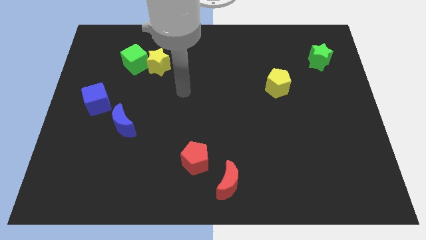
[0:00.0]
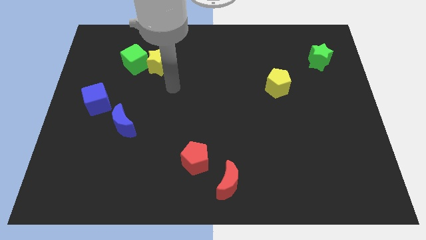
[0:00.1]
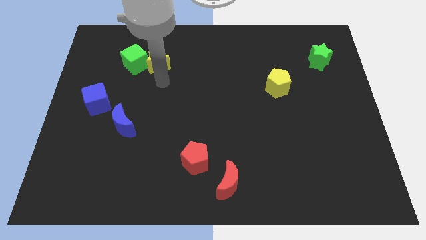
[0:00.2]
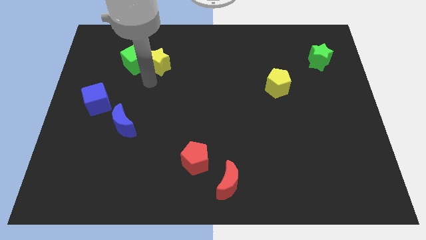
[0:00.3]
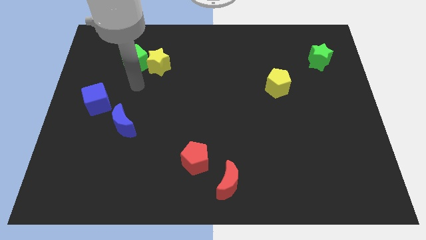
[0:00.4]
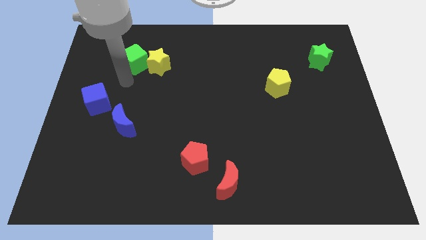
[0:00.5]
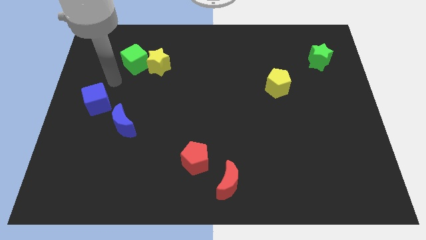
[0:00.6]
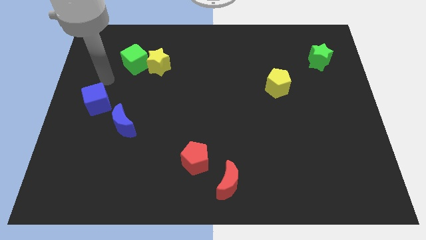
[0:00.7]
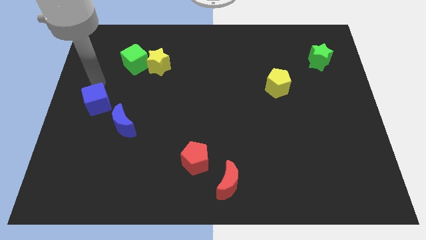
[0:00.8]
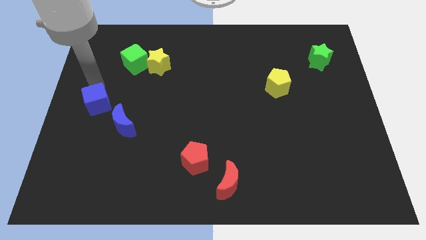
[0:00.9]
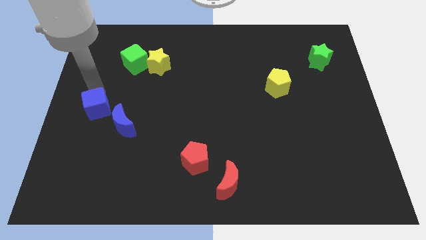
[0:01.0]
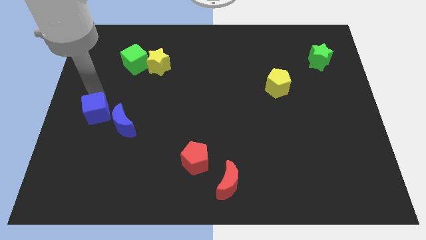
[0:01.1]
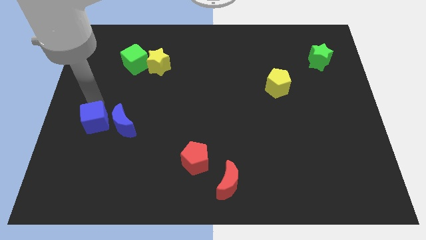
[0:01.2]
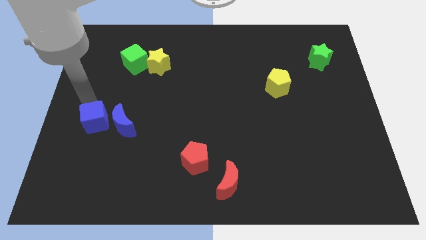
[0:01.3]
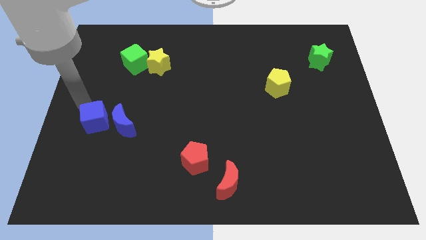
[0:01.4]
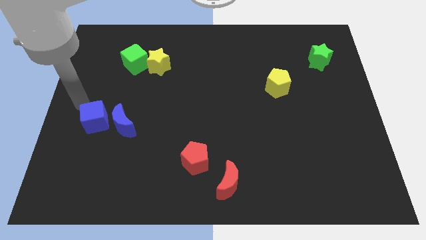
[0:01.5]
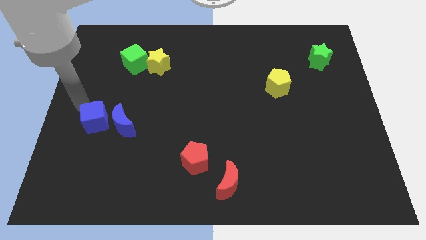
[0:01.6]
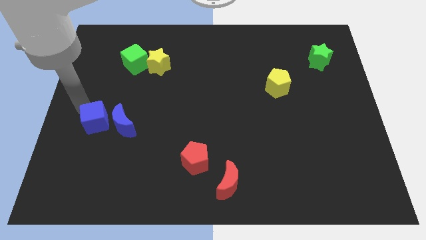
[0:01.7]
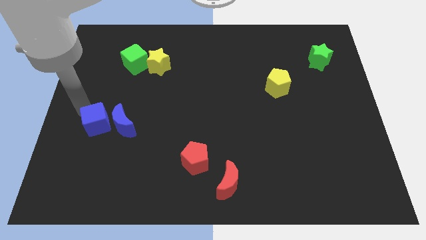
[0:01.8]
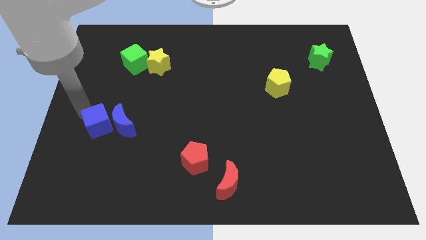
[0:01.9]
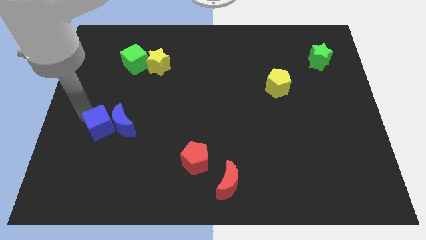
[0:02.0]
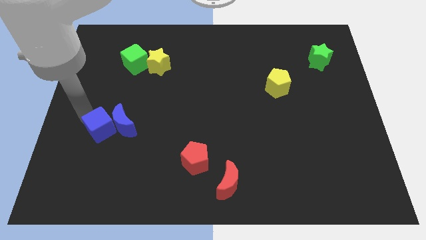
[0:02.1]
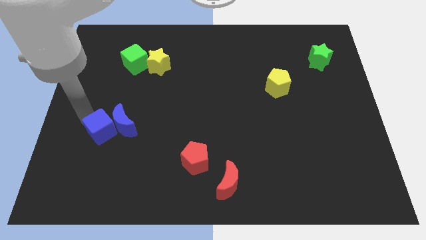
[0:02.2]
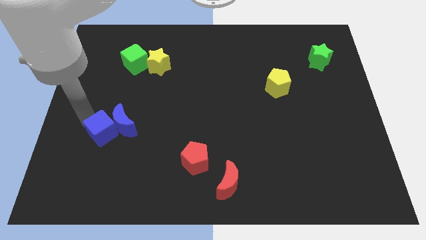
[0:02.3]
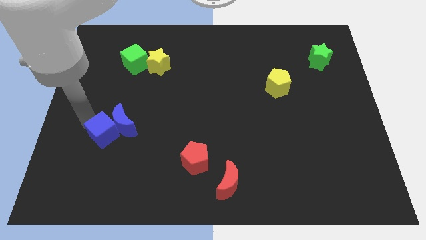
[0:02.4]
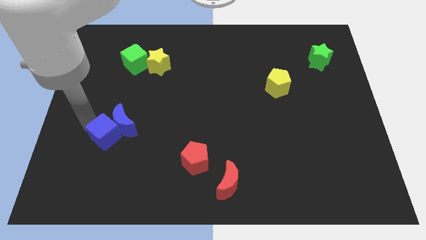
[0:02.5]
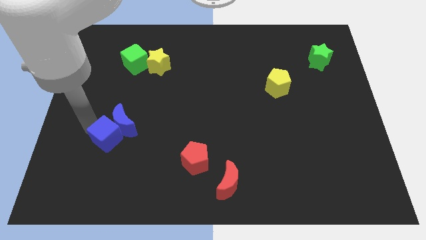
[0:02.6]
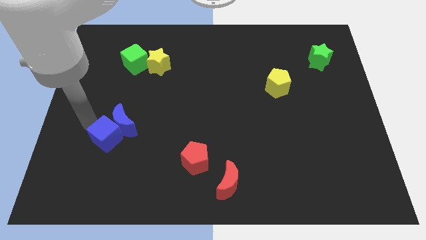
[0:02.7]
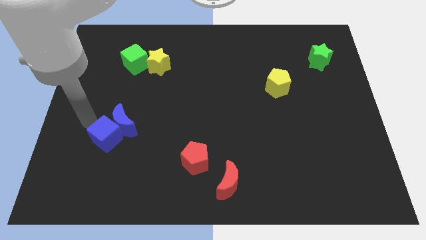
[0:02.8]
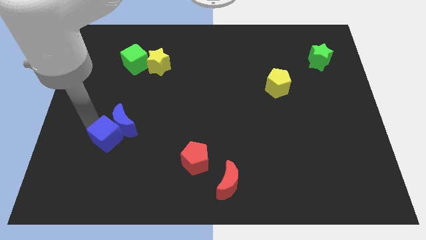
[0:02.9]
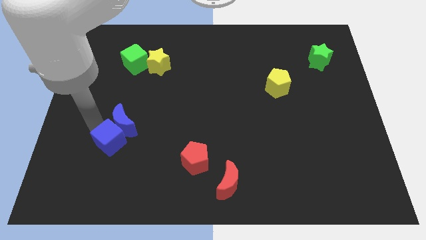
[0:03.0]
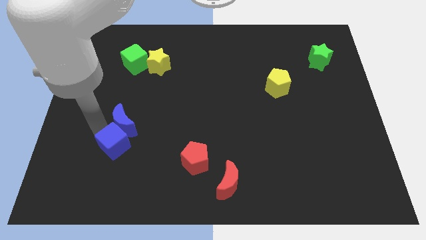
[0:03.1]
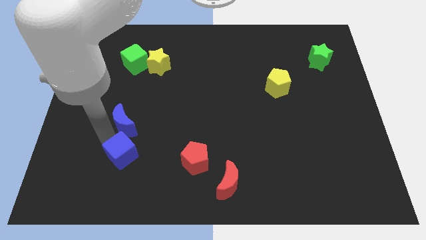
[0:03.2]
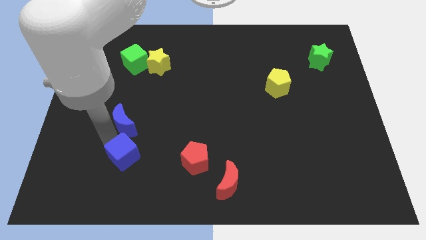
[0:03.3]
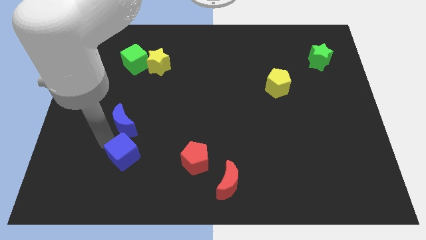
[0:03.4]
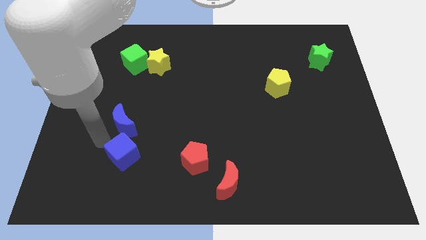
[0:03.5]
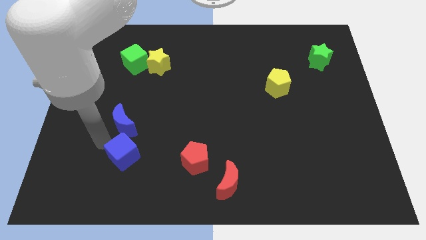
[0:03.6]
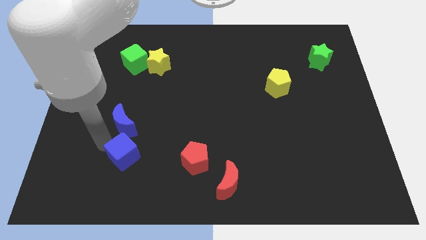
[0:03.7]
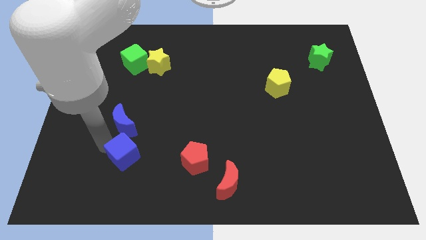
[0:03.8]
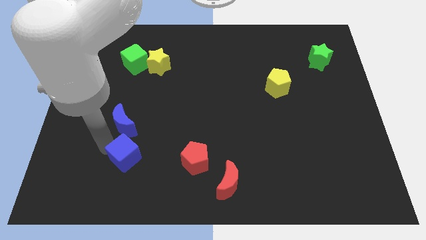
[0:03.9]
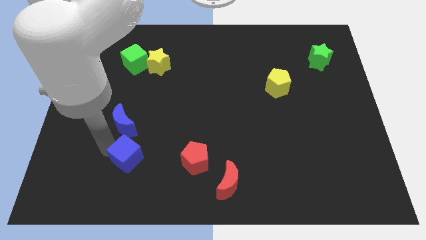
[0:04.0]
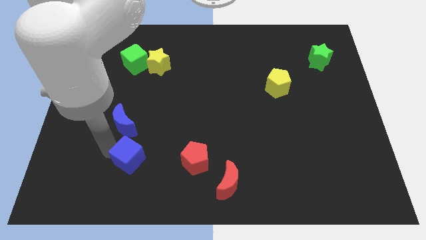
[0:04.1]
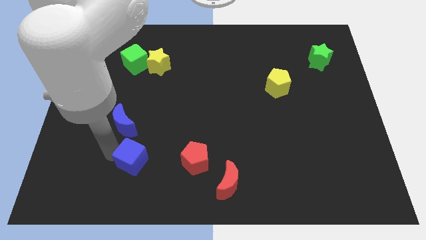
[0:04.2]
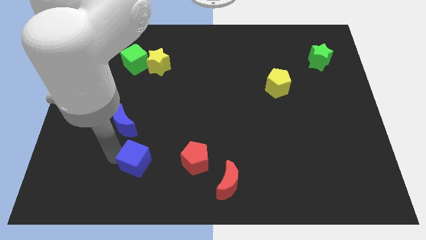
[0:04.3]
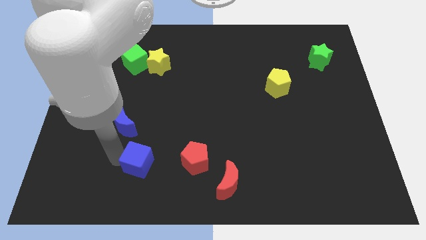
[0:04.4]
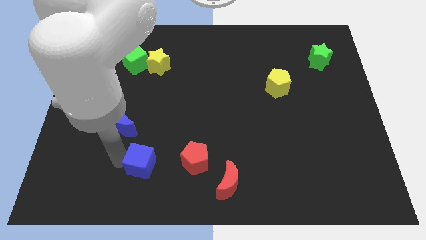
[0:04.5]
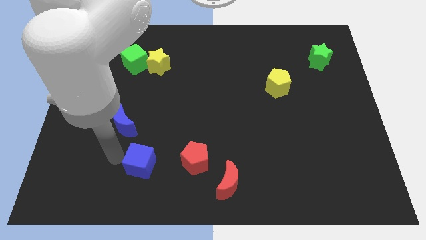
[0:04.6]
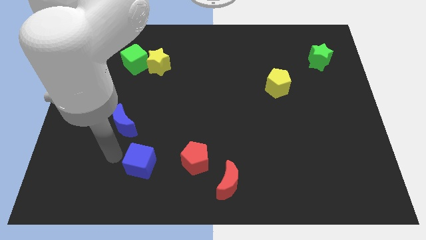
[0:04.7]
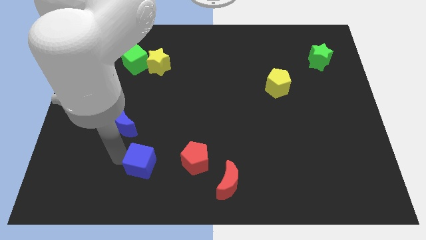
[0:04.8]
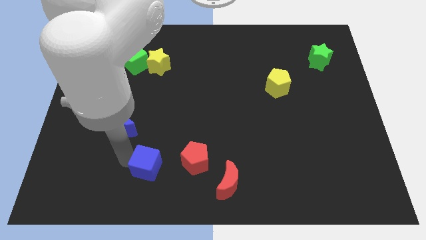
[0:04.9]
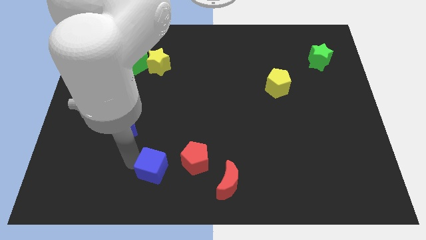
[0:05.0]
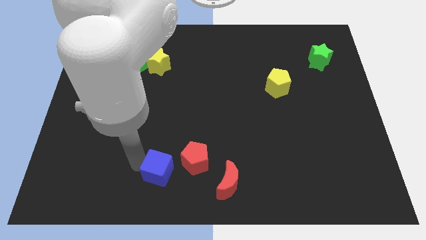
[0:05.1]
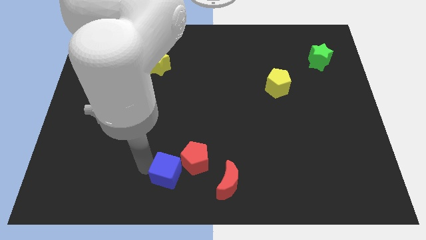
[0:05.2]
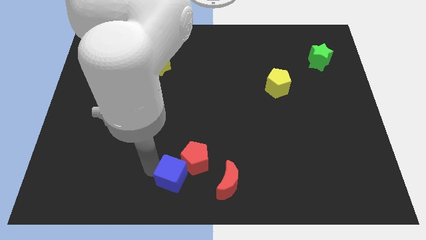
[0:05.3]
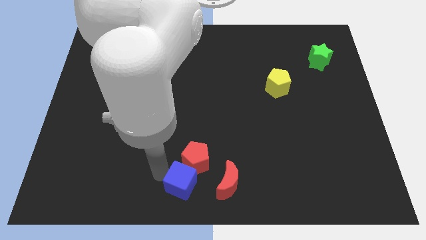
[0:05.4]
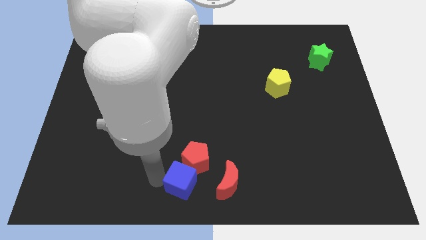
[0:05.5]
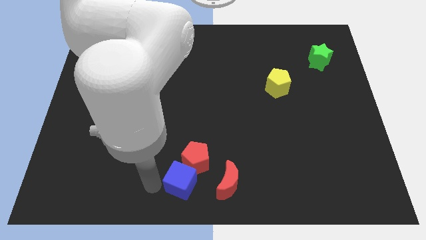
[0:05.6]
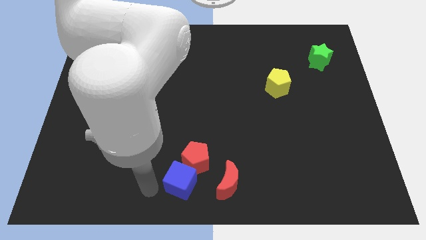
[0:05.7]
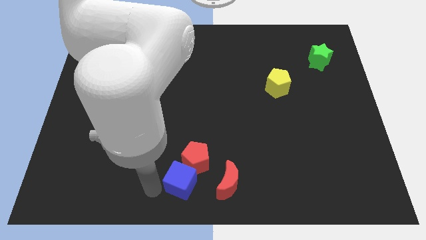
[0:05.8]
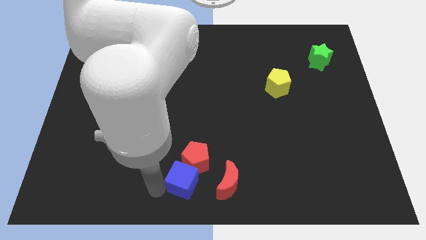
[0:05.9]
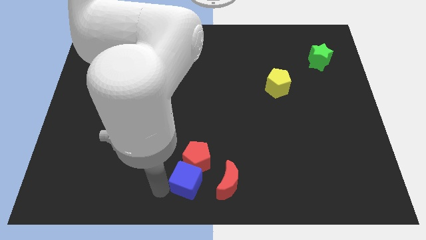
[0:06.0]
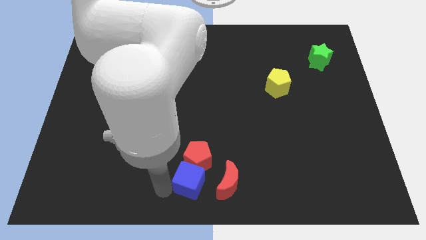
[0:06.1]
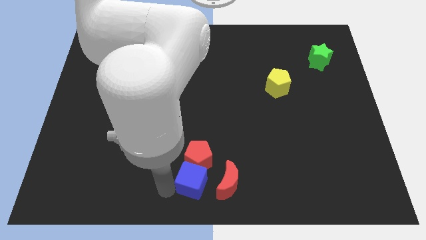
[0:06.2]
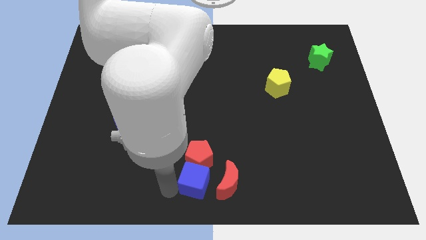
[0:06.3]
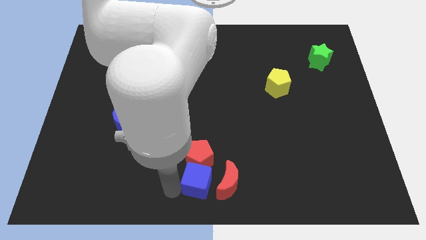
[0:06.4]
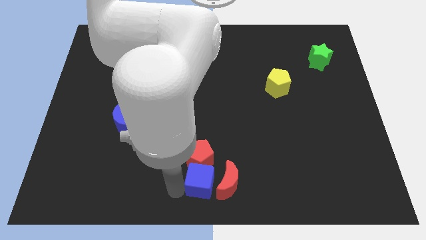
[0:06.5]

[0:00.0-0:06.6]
push the blue cube close to the red moon
